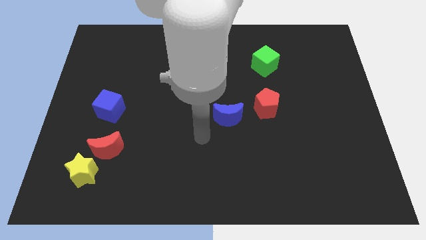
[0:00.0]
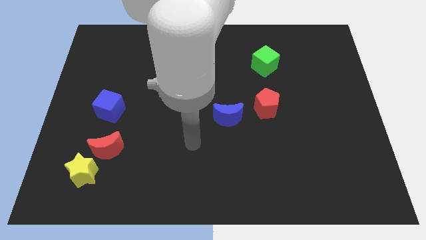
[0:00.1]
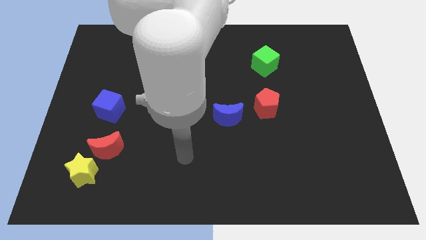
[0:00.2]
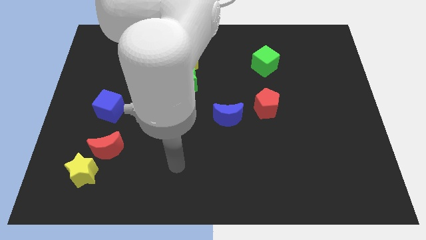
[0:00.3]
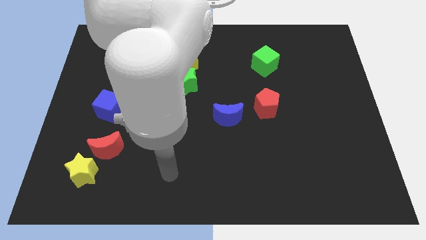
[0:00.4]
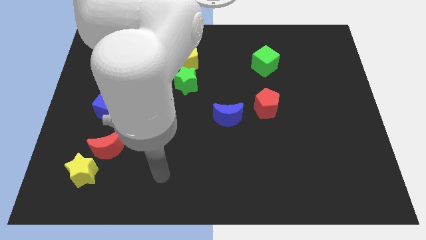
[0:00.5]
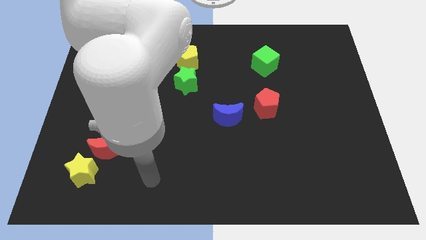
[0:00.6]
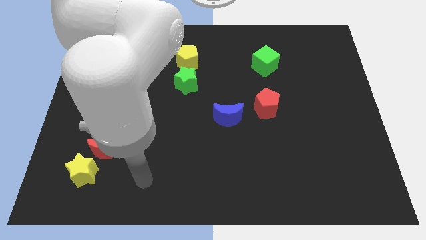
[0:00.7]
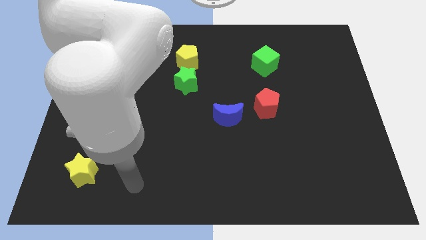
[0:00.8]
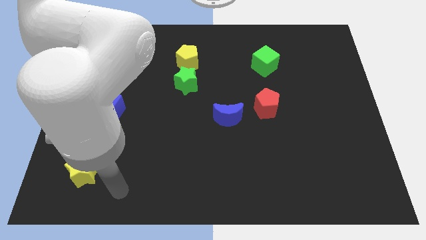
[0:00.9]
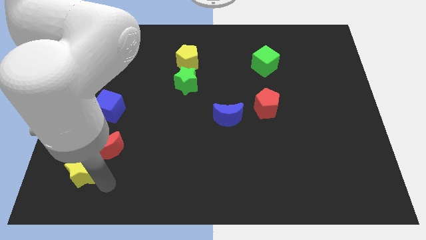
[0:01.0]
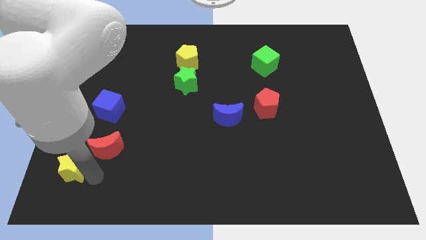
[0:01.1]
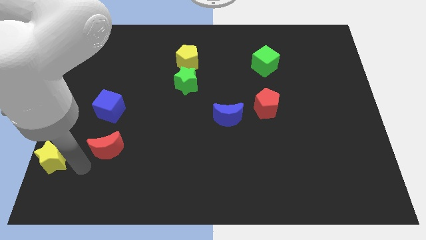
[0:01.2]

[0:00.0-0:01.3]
move the red moon away from the yellow star

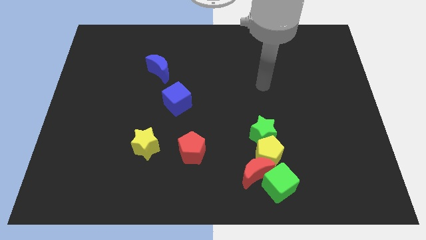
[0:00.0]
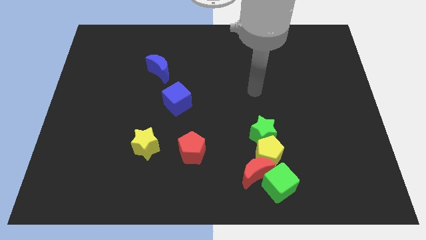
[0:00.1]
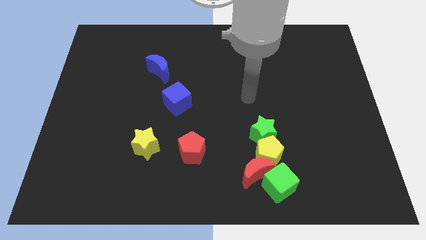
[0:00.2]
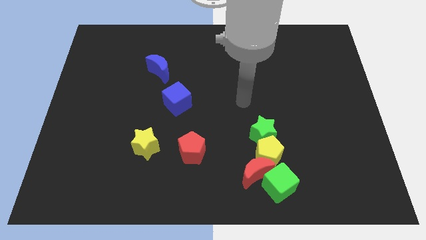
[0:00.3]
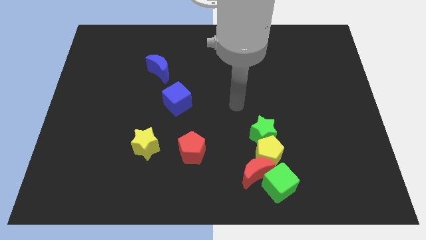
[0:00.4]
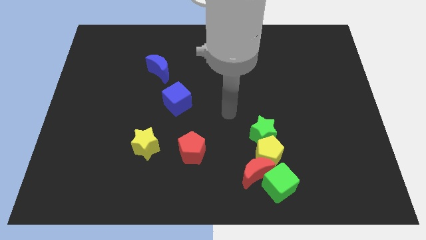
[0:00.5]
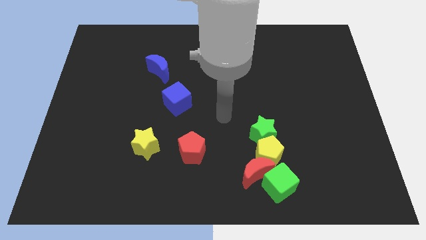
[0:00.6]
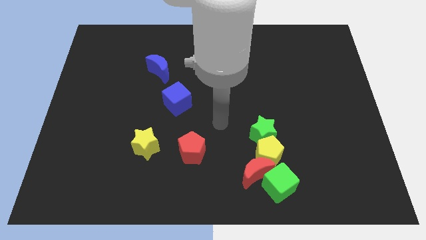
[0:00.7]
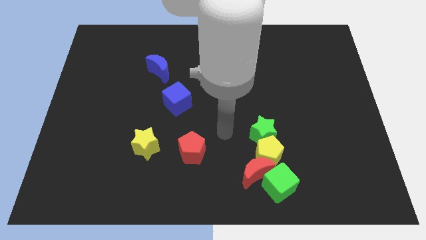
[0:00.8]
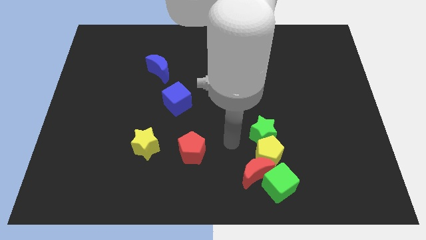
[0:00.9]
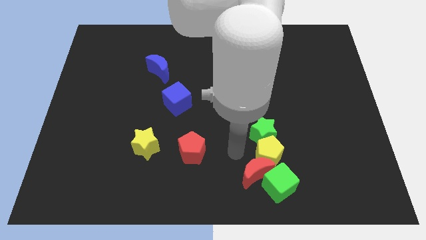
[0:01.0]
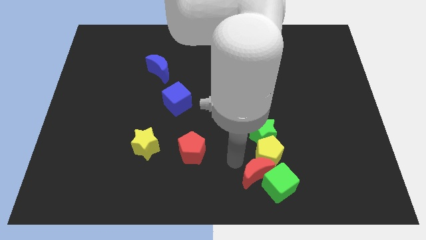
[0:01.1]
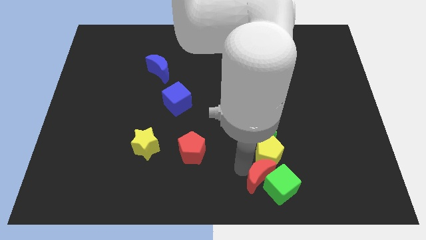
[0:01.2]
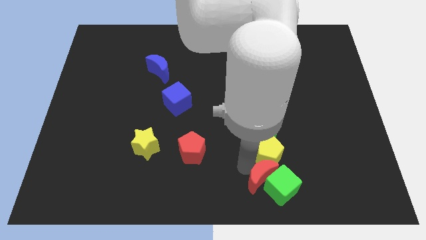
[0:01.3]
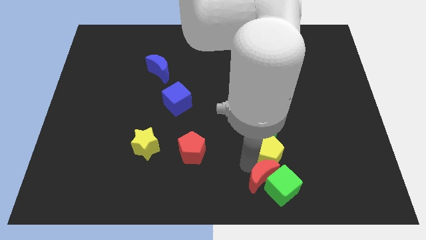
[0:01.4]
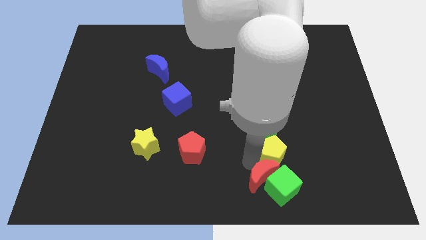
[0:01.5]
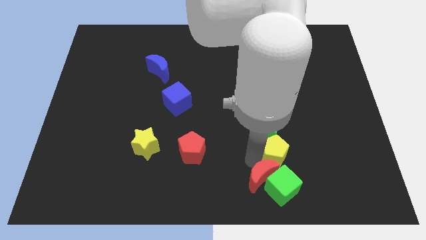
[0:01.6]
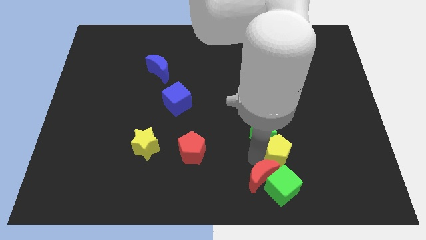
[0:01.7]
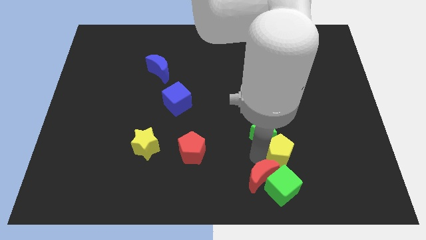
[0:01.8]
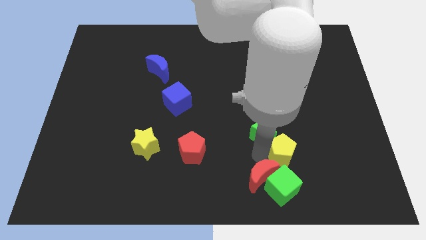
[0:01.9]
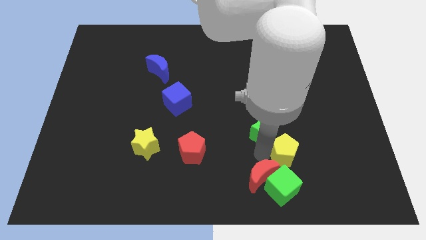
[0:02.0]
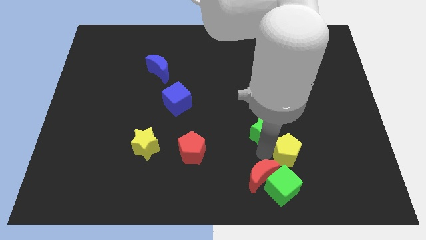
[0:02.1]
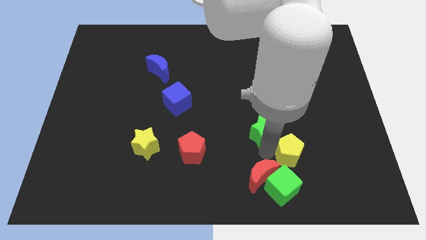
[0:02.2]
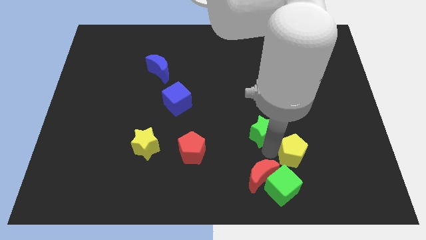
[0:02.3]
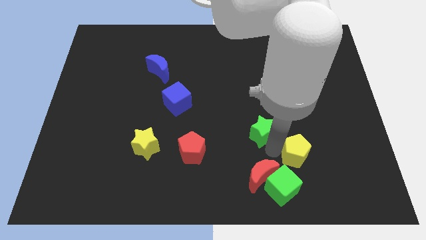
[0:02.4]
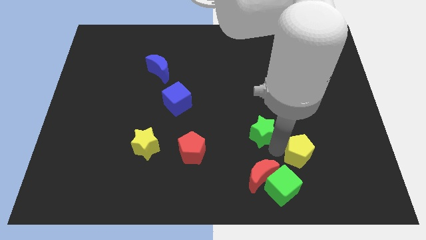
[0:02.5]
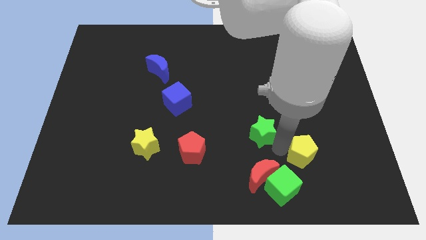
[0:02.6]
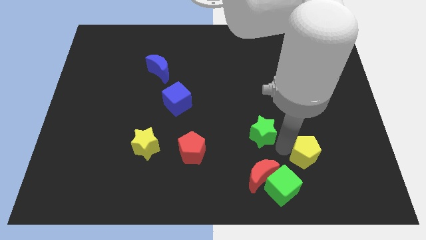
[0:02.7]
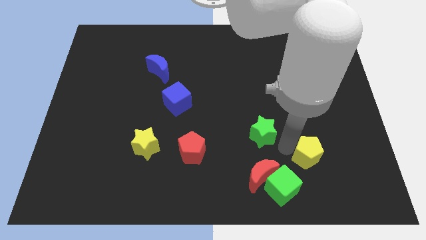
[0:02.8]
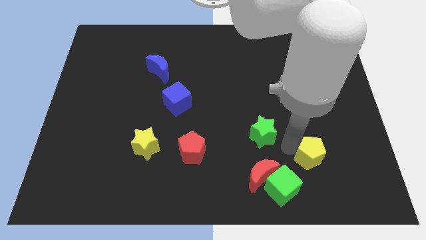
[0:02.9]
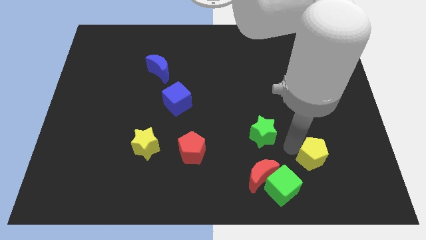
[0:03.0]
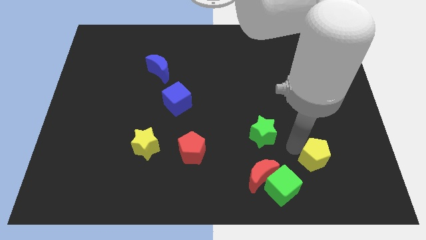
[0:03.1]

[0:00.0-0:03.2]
separate the yellow pentagon from the group of blocks

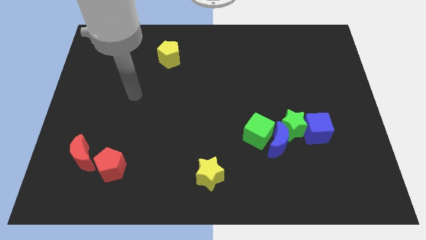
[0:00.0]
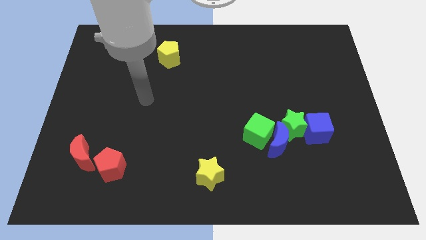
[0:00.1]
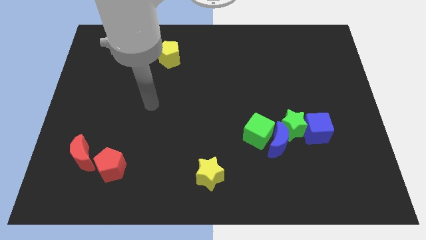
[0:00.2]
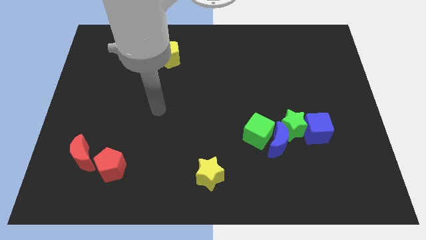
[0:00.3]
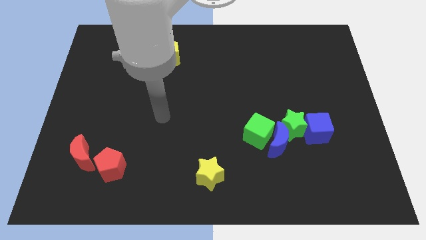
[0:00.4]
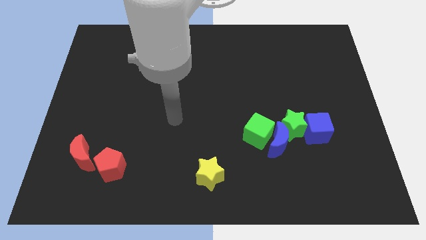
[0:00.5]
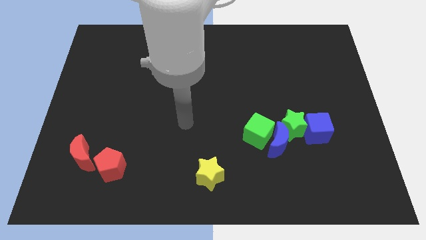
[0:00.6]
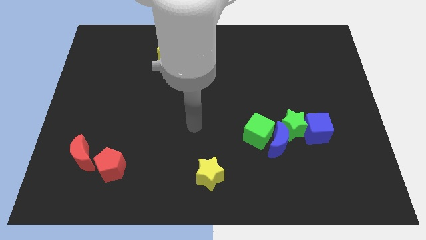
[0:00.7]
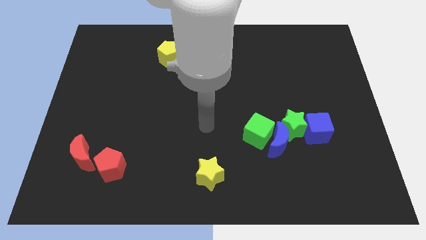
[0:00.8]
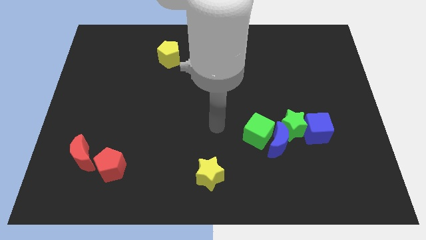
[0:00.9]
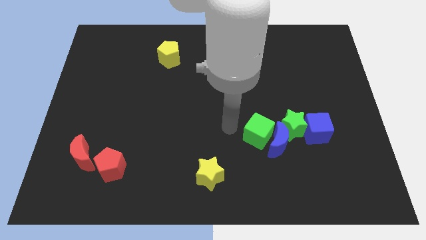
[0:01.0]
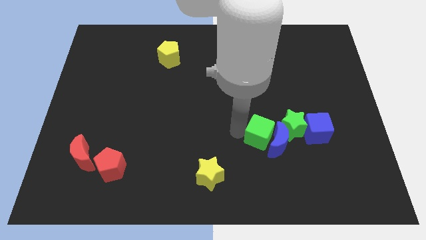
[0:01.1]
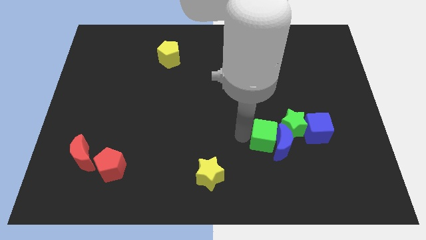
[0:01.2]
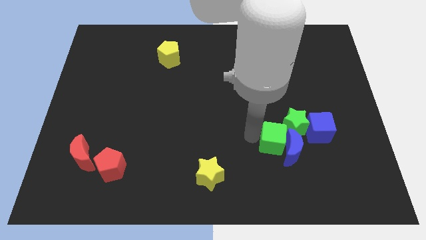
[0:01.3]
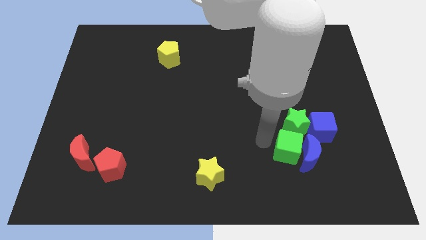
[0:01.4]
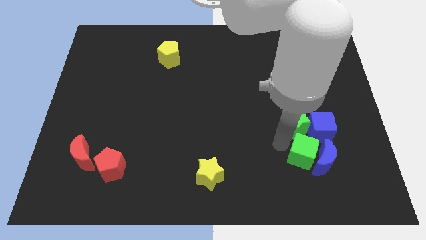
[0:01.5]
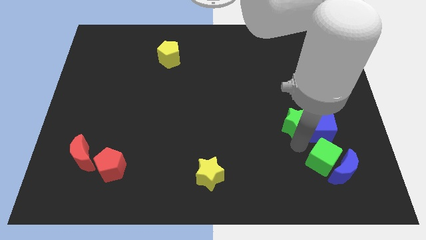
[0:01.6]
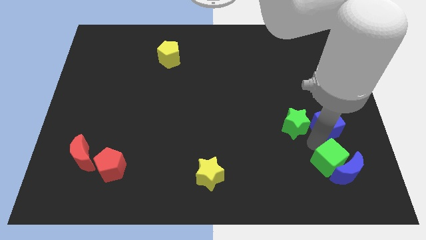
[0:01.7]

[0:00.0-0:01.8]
separate the green star from the blue moon, blue cube, and green cube

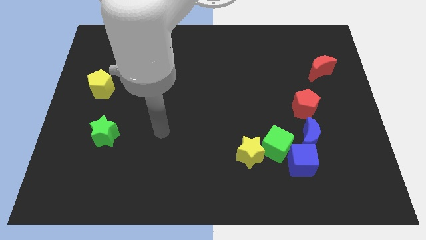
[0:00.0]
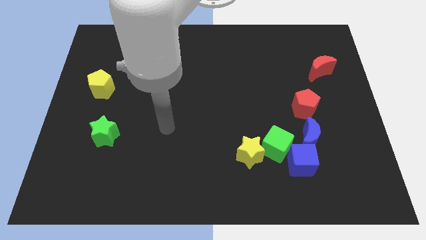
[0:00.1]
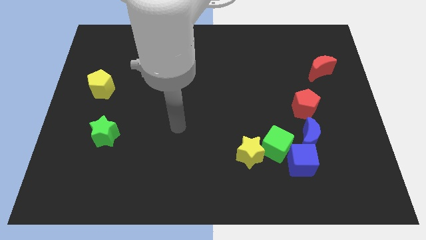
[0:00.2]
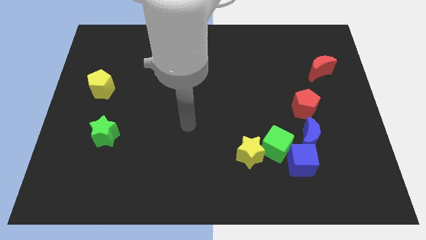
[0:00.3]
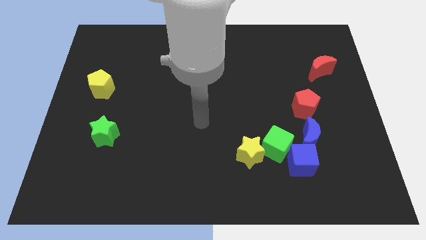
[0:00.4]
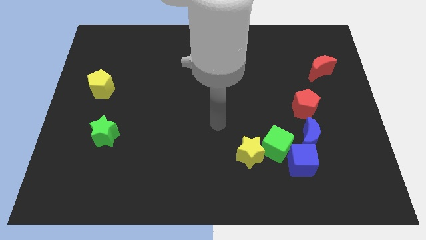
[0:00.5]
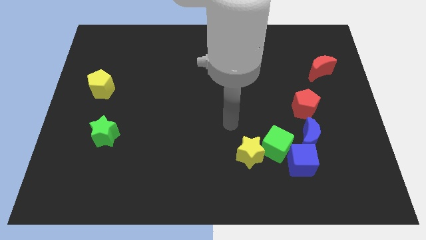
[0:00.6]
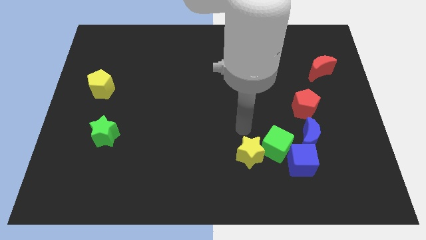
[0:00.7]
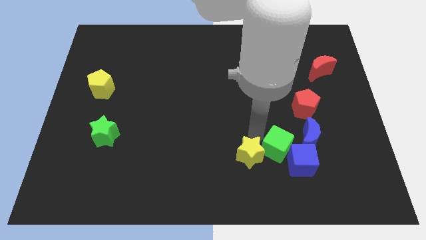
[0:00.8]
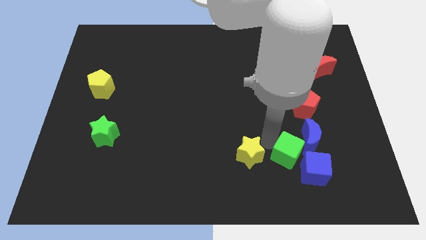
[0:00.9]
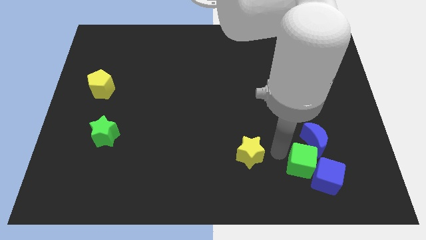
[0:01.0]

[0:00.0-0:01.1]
separate the yellow star from the green cube

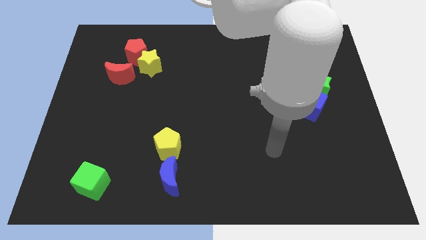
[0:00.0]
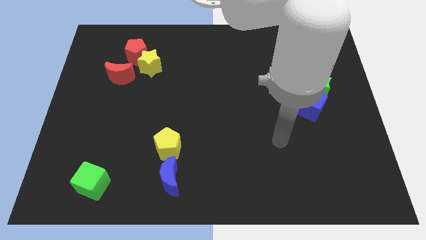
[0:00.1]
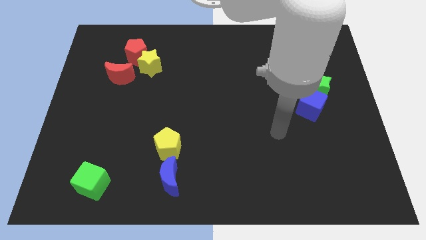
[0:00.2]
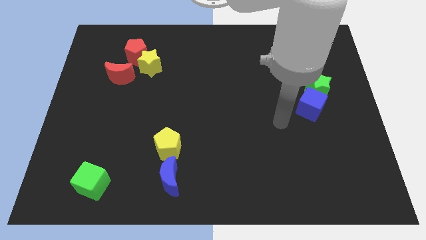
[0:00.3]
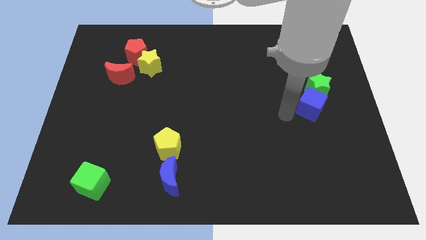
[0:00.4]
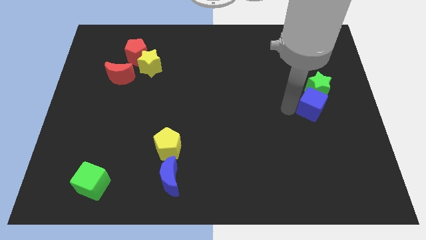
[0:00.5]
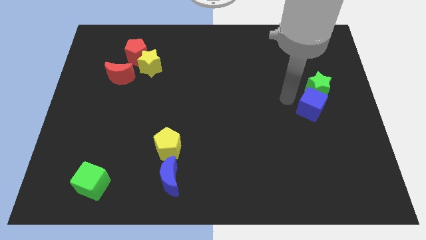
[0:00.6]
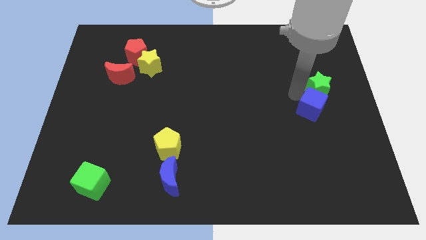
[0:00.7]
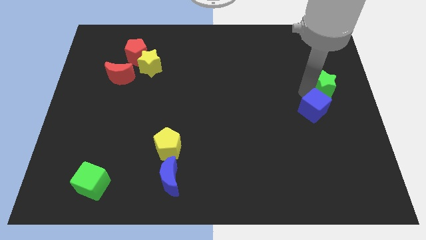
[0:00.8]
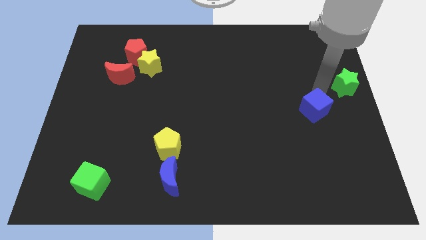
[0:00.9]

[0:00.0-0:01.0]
pull the blue cube apart from the green star

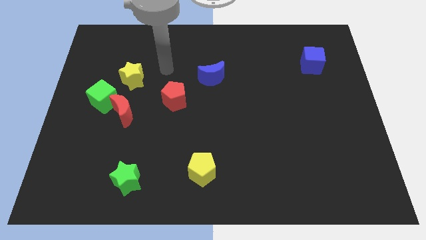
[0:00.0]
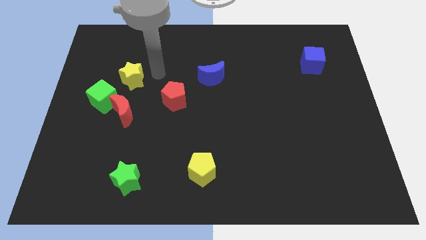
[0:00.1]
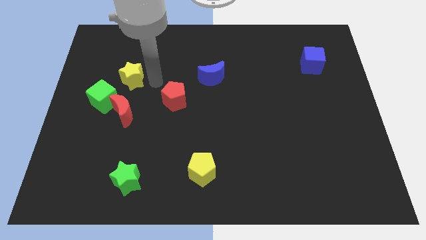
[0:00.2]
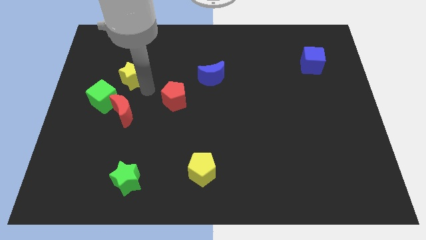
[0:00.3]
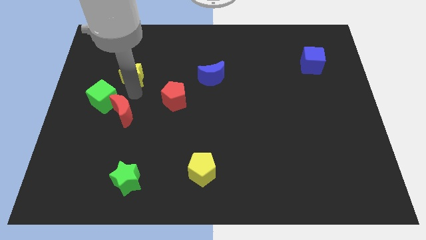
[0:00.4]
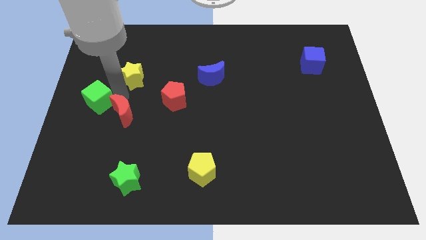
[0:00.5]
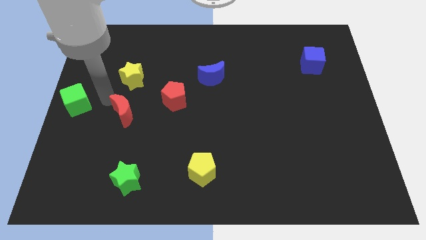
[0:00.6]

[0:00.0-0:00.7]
pull the red moon apart from the green cube

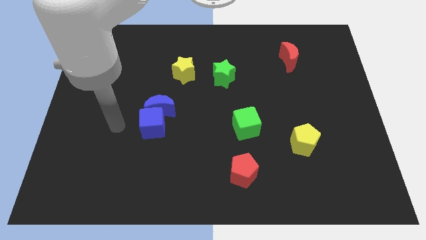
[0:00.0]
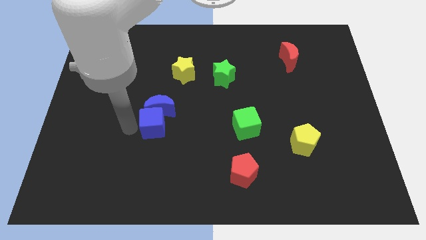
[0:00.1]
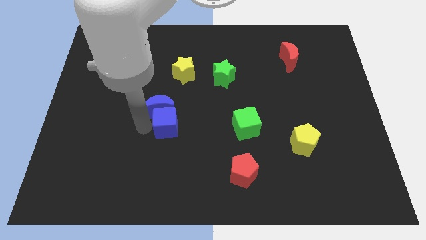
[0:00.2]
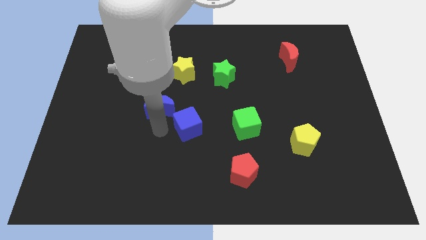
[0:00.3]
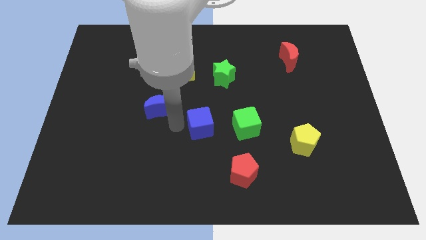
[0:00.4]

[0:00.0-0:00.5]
move the blue moon away from the blue cube
